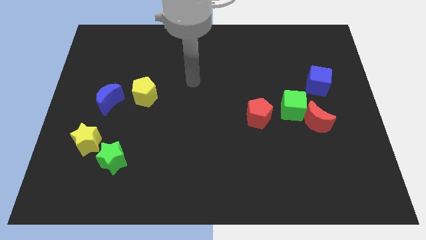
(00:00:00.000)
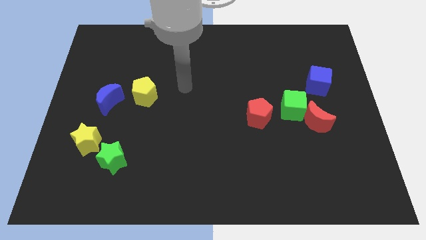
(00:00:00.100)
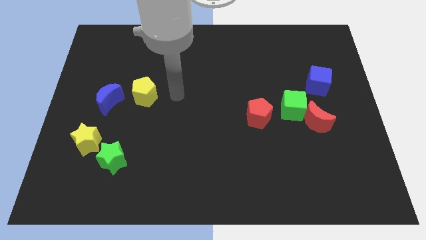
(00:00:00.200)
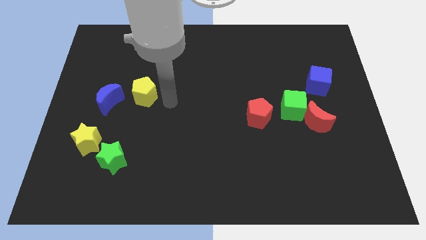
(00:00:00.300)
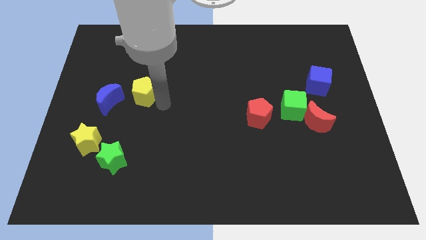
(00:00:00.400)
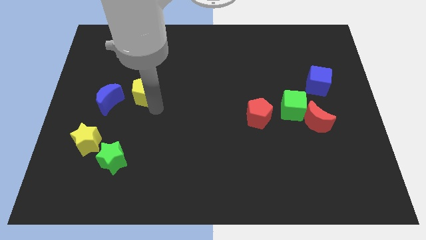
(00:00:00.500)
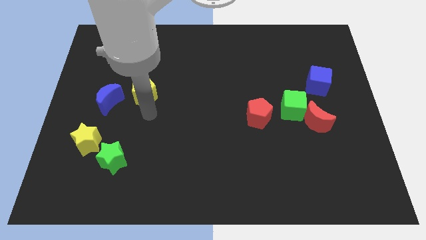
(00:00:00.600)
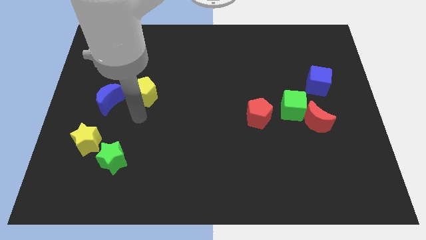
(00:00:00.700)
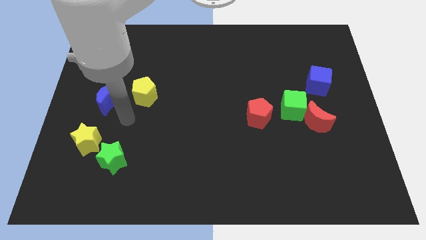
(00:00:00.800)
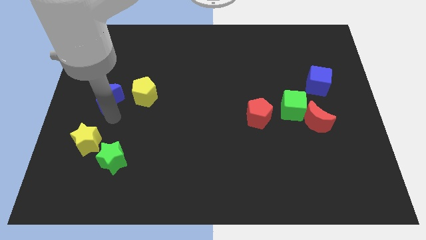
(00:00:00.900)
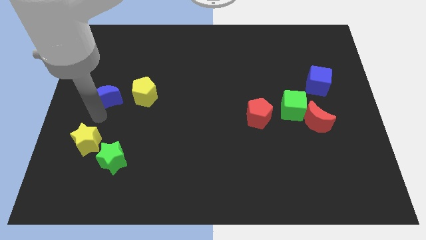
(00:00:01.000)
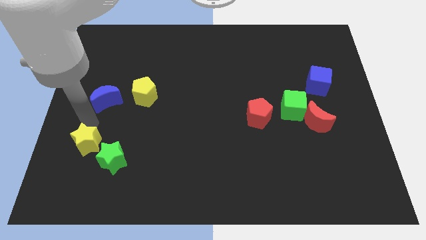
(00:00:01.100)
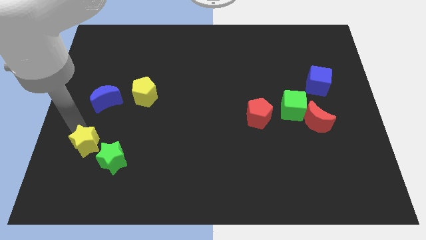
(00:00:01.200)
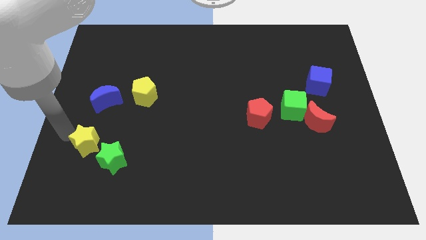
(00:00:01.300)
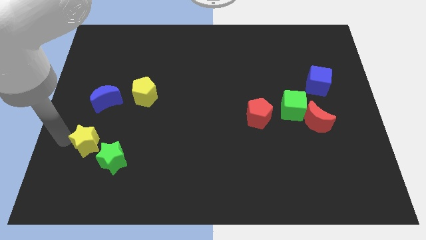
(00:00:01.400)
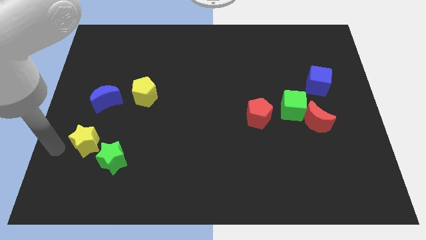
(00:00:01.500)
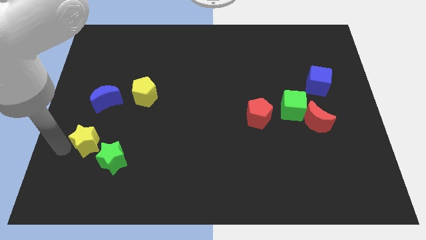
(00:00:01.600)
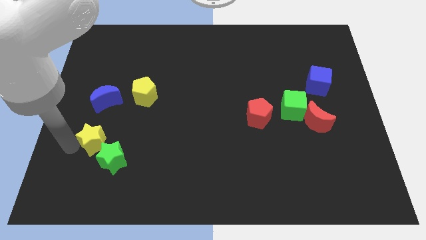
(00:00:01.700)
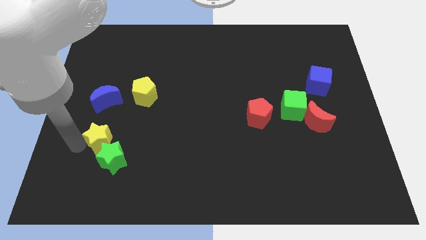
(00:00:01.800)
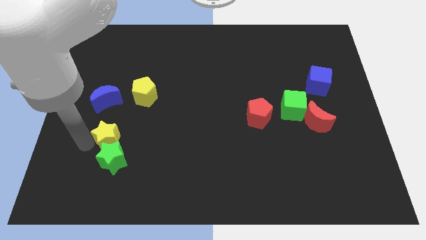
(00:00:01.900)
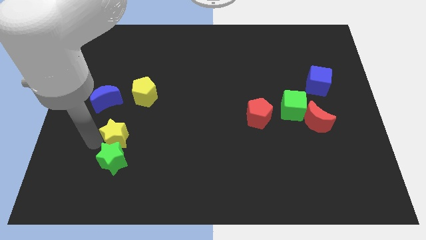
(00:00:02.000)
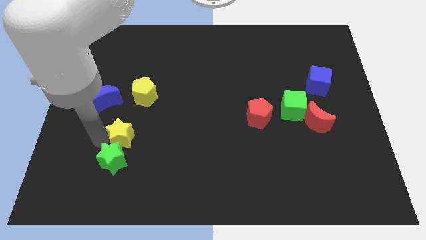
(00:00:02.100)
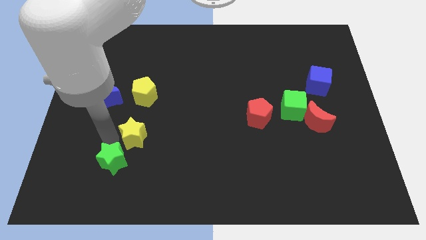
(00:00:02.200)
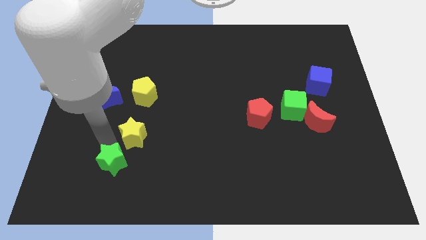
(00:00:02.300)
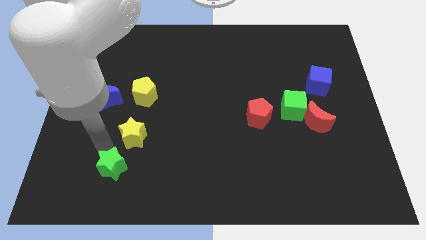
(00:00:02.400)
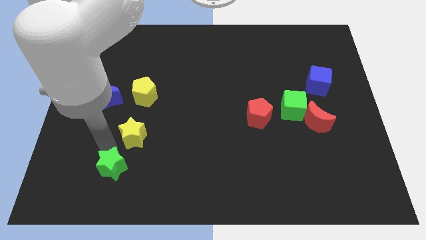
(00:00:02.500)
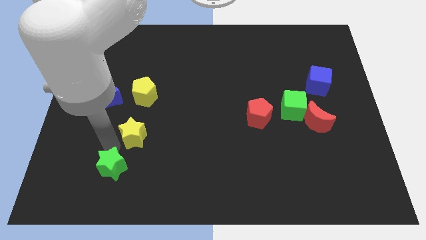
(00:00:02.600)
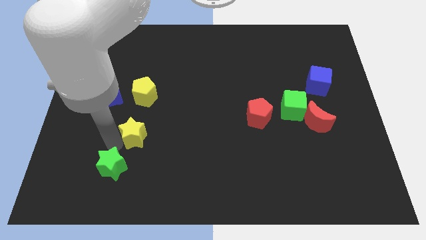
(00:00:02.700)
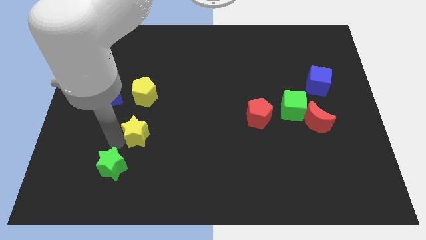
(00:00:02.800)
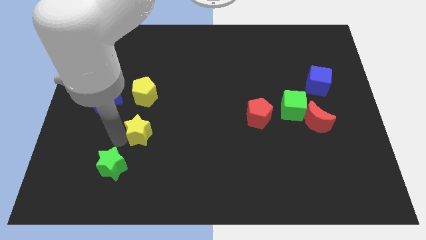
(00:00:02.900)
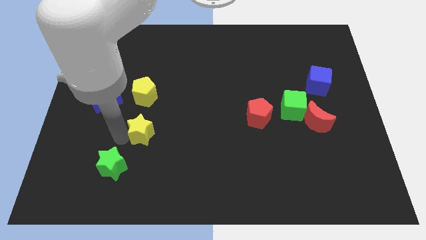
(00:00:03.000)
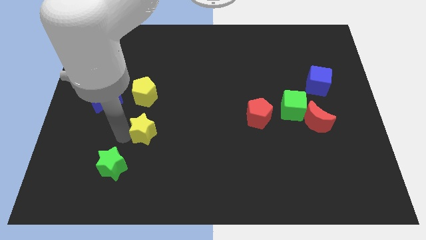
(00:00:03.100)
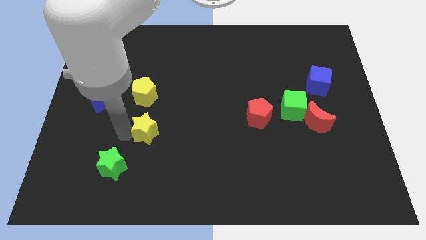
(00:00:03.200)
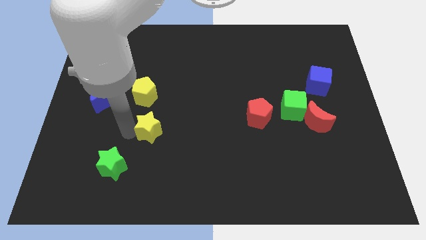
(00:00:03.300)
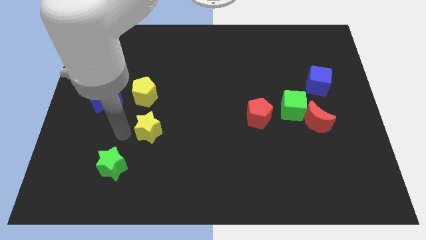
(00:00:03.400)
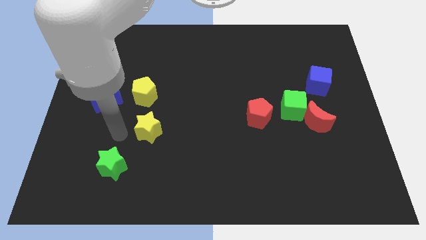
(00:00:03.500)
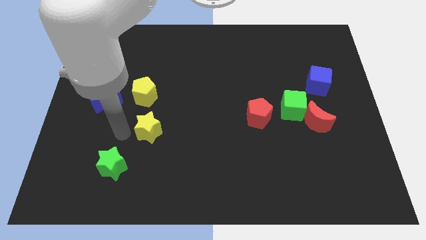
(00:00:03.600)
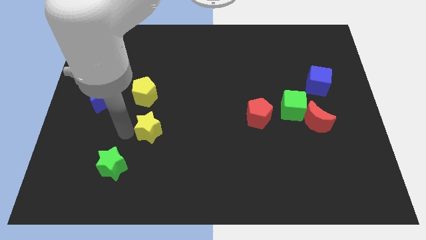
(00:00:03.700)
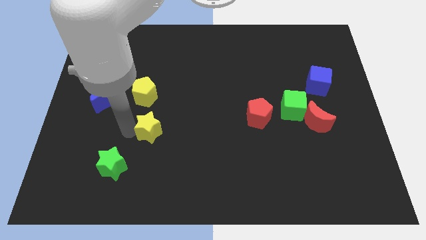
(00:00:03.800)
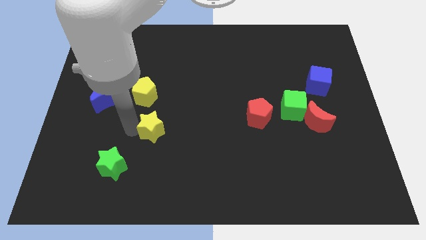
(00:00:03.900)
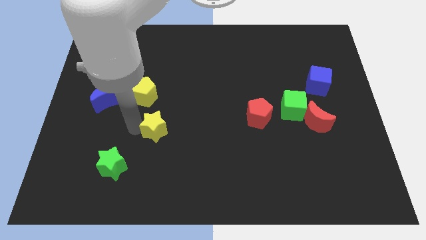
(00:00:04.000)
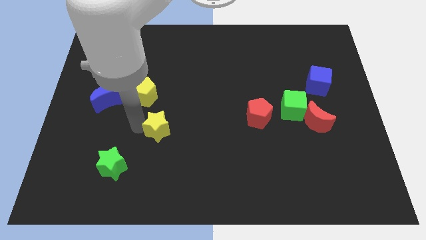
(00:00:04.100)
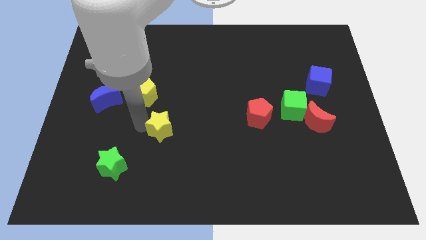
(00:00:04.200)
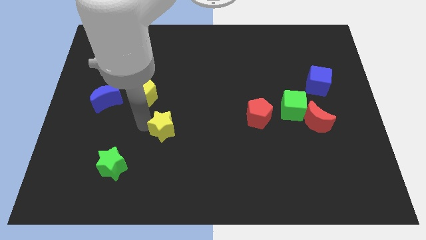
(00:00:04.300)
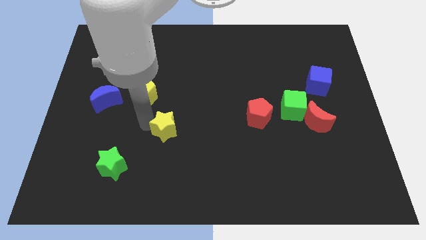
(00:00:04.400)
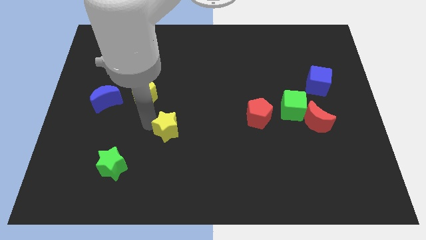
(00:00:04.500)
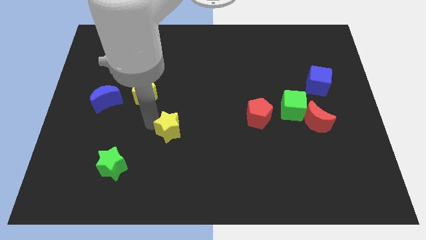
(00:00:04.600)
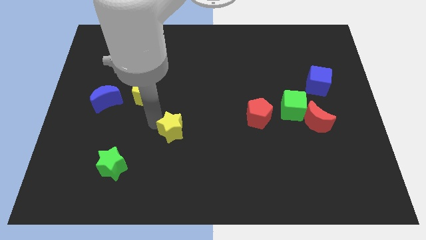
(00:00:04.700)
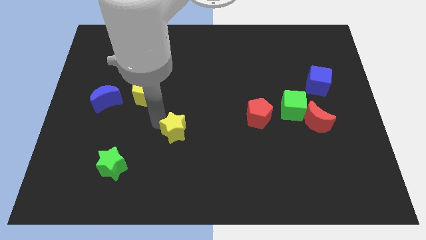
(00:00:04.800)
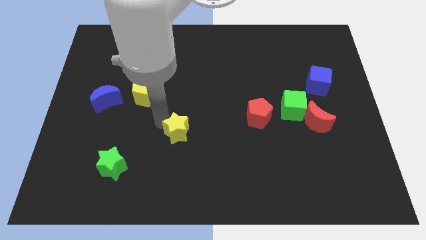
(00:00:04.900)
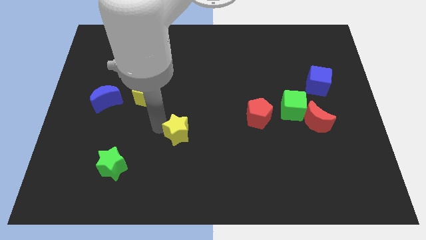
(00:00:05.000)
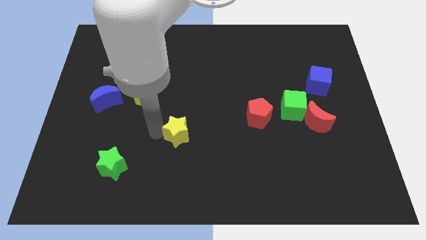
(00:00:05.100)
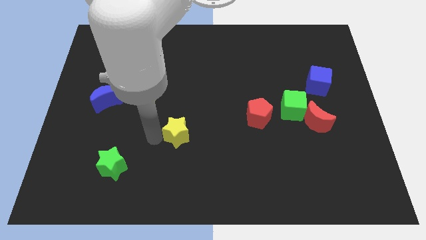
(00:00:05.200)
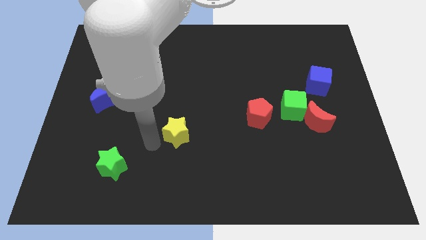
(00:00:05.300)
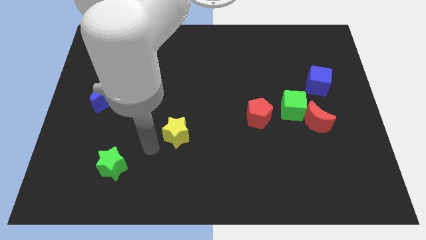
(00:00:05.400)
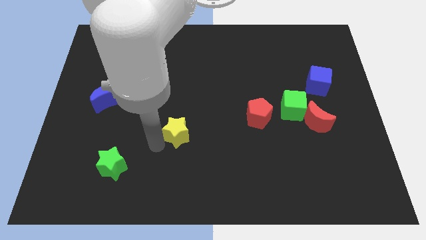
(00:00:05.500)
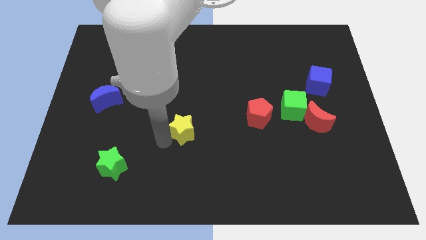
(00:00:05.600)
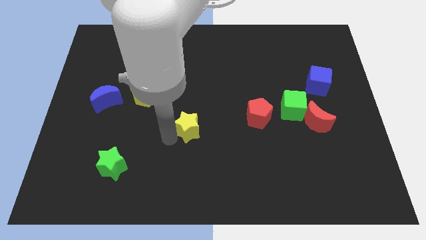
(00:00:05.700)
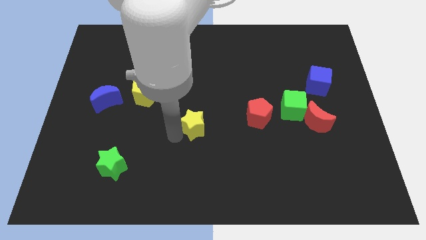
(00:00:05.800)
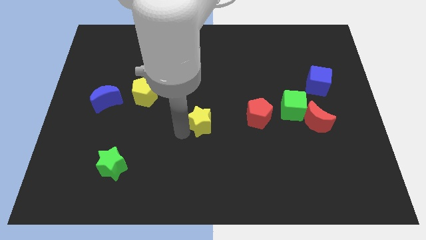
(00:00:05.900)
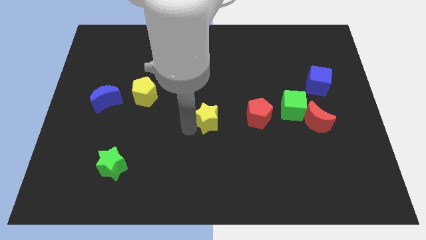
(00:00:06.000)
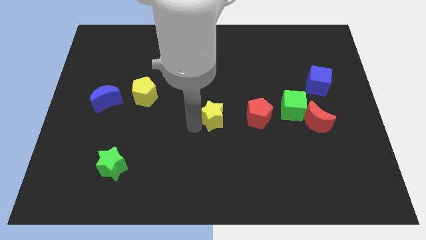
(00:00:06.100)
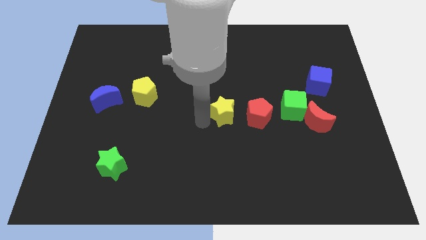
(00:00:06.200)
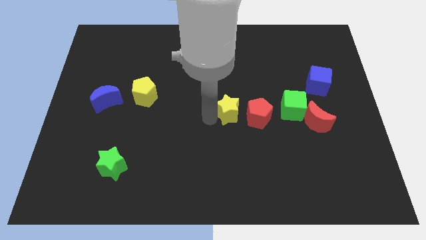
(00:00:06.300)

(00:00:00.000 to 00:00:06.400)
push the yellow star to the left of the green cube

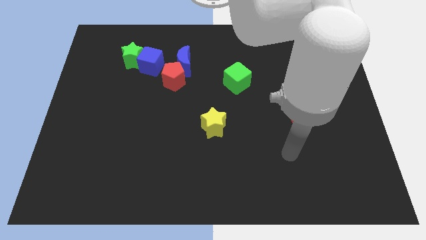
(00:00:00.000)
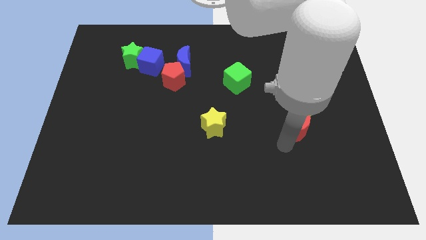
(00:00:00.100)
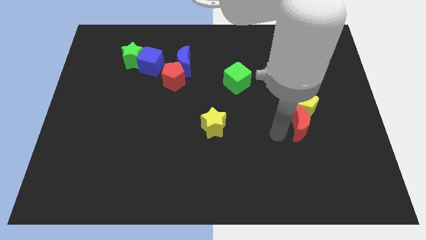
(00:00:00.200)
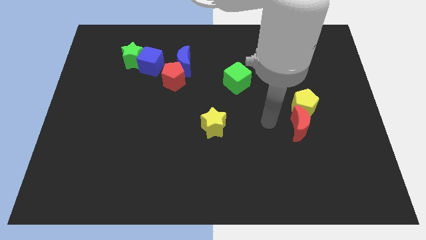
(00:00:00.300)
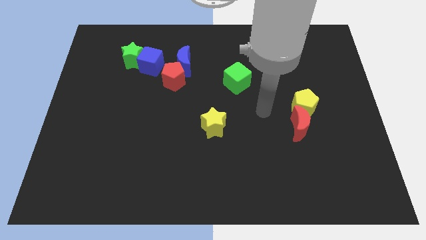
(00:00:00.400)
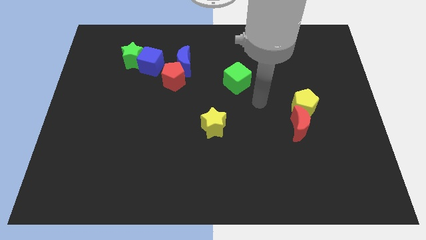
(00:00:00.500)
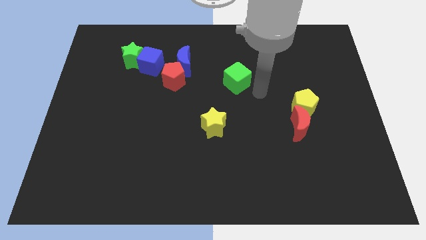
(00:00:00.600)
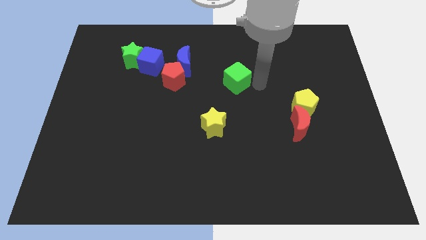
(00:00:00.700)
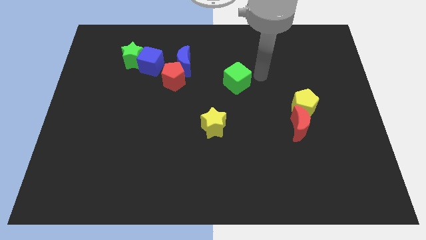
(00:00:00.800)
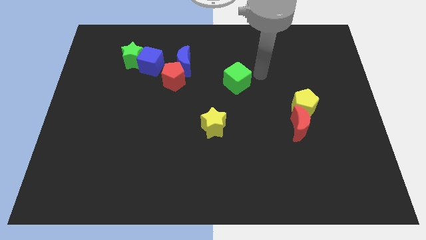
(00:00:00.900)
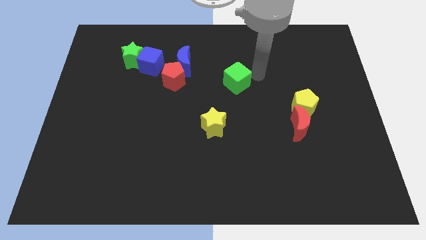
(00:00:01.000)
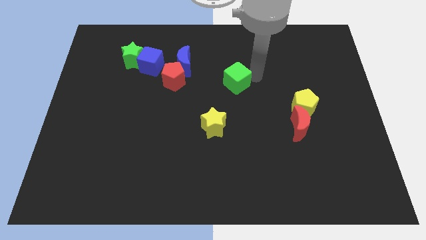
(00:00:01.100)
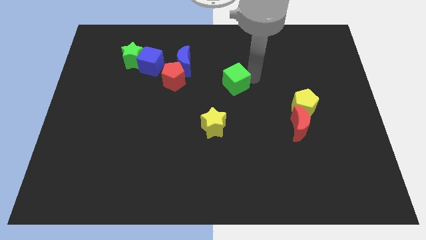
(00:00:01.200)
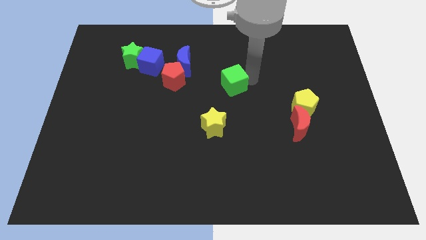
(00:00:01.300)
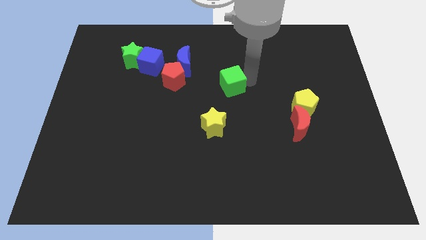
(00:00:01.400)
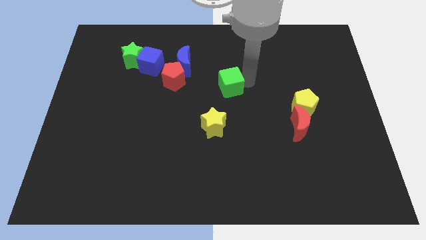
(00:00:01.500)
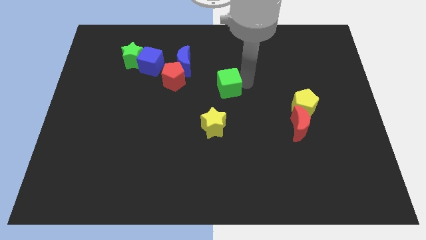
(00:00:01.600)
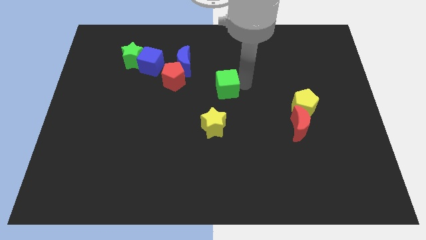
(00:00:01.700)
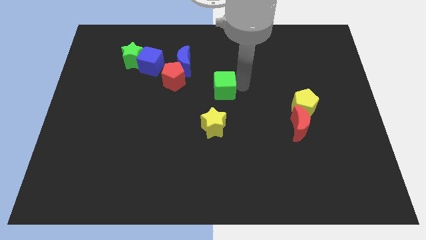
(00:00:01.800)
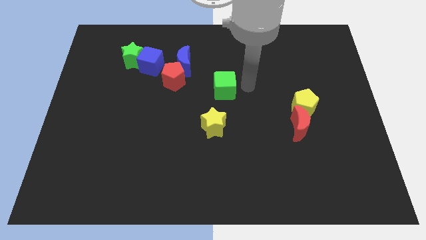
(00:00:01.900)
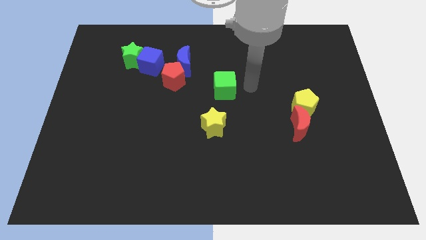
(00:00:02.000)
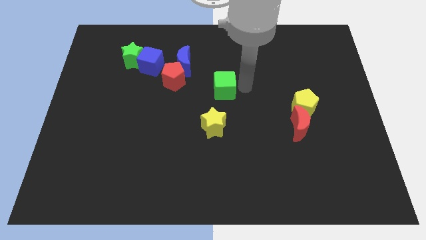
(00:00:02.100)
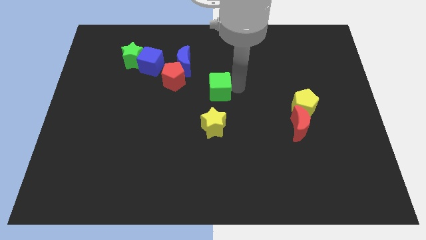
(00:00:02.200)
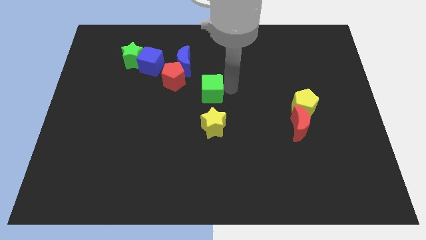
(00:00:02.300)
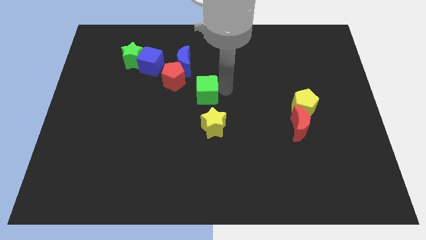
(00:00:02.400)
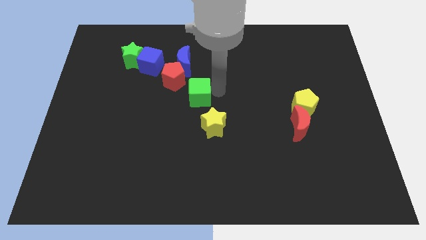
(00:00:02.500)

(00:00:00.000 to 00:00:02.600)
put the green cube below the blue moon
